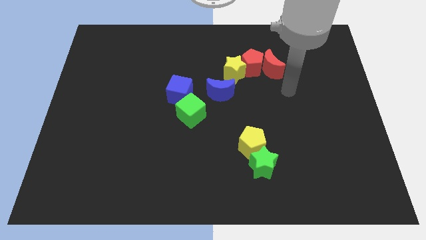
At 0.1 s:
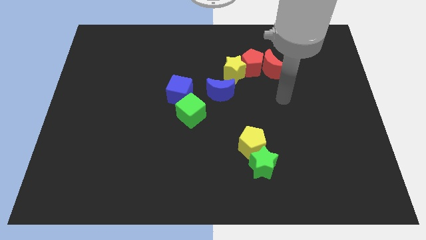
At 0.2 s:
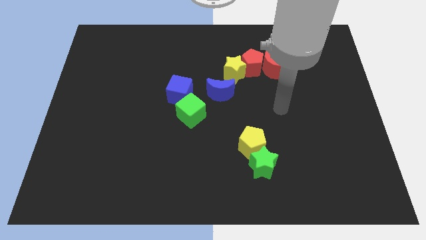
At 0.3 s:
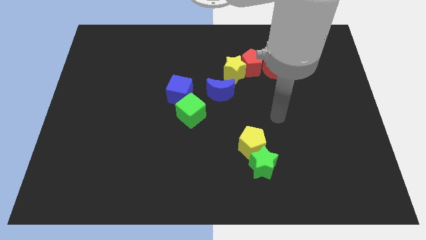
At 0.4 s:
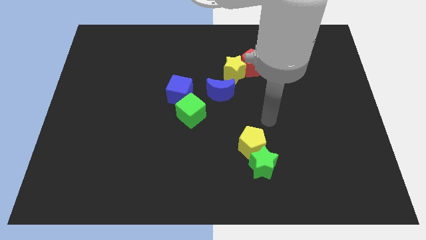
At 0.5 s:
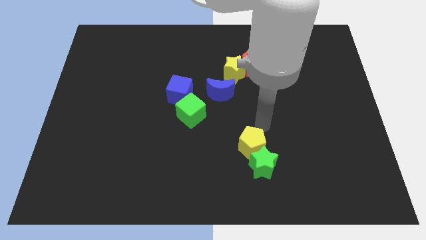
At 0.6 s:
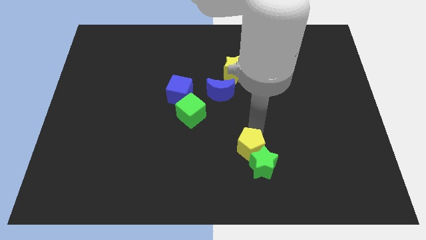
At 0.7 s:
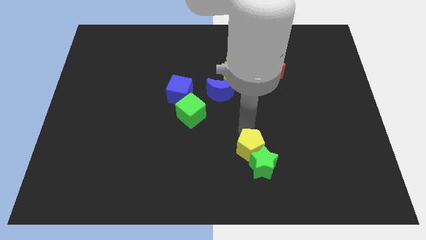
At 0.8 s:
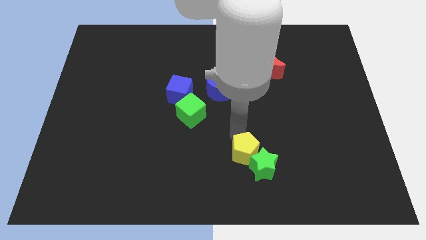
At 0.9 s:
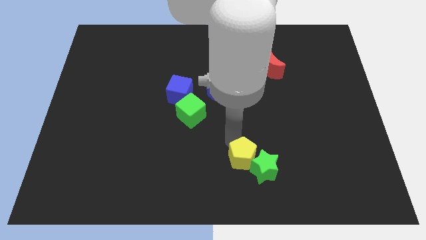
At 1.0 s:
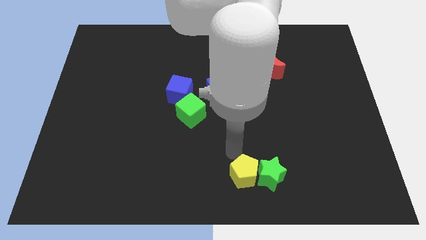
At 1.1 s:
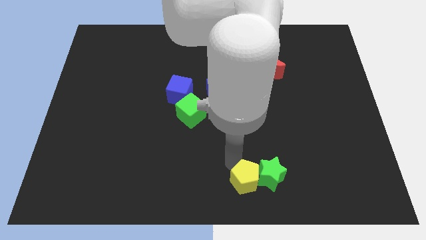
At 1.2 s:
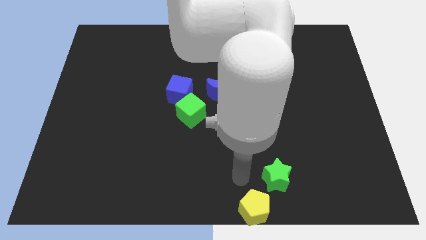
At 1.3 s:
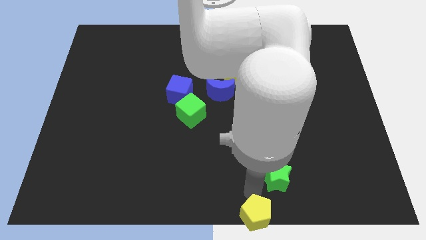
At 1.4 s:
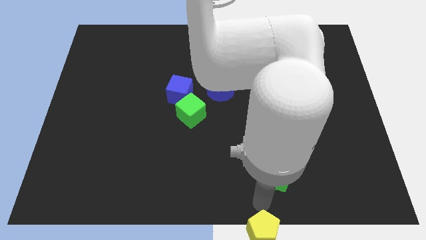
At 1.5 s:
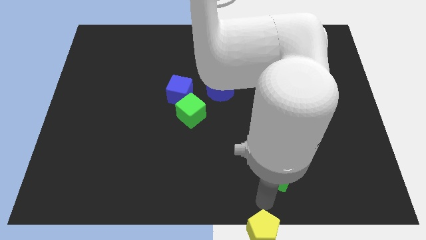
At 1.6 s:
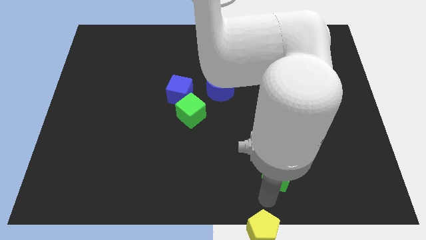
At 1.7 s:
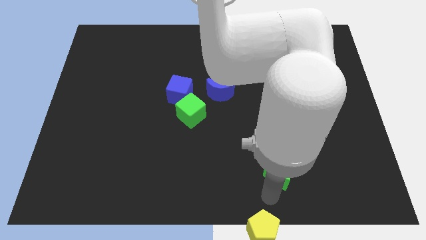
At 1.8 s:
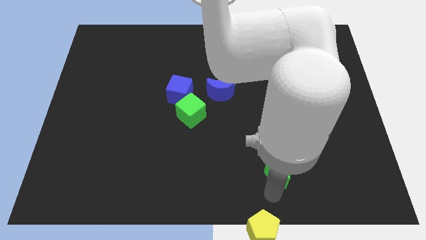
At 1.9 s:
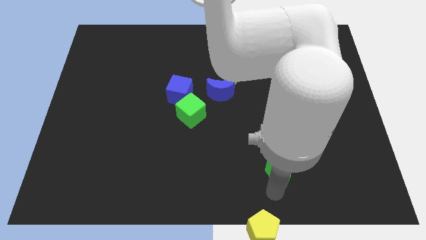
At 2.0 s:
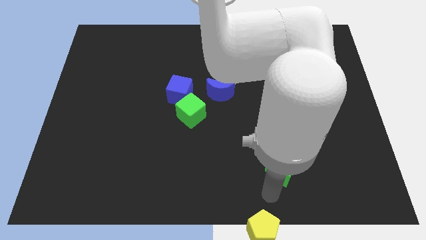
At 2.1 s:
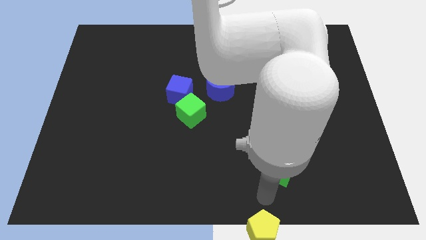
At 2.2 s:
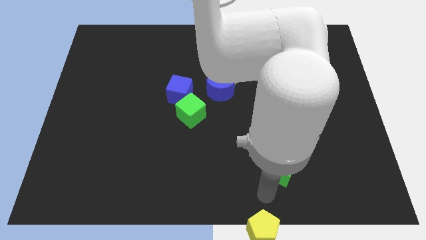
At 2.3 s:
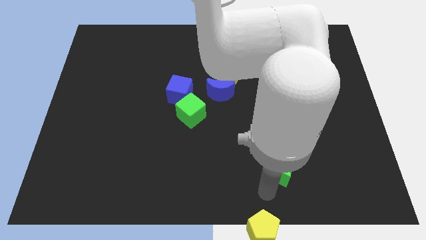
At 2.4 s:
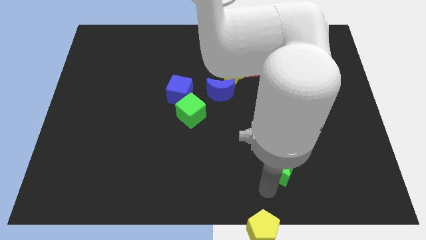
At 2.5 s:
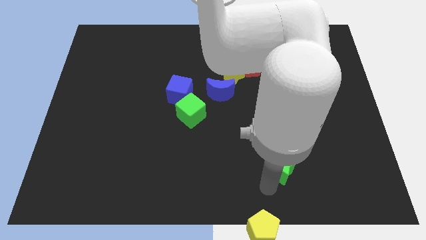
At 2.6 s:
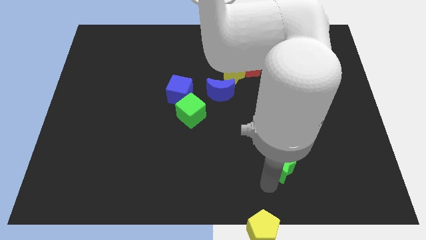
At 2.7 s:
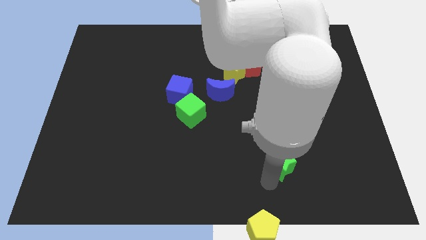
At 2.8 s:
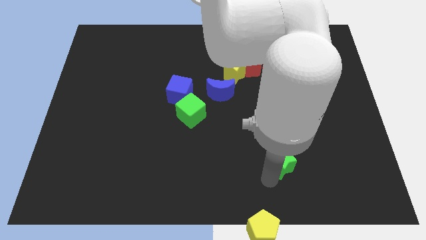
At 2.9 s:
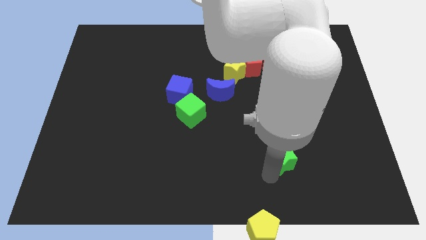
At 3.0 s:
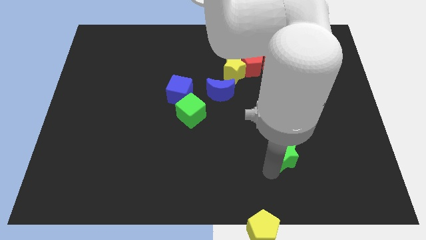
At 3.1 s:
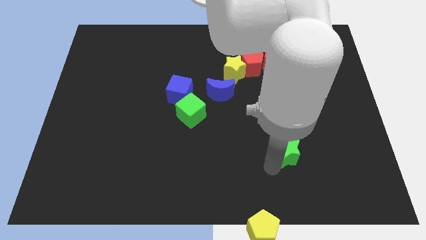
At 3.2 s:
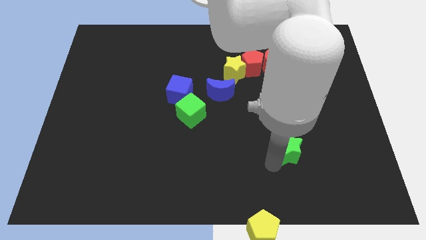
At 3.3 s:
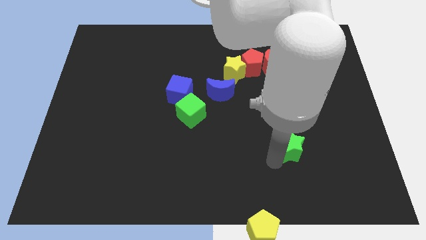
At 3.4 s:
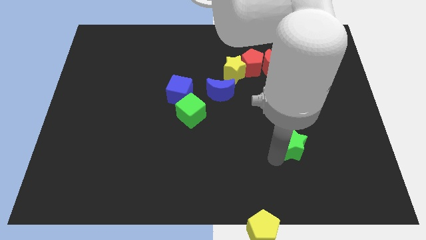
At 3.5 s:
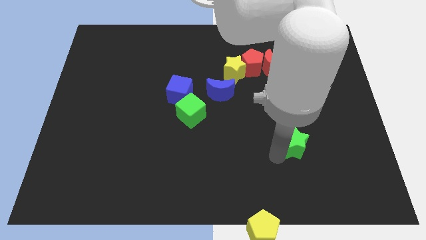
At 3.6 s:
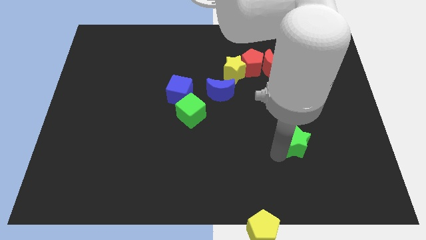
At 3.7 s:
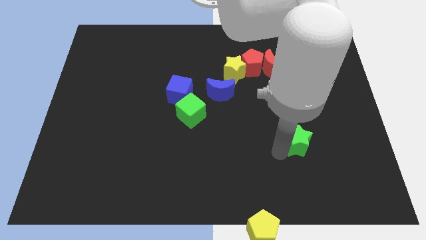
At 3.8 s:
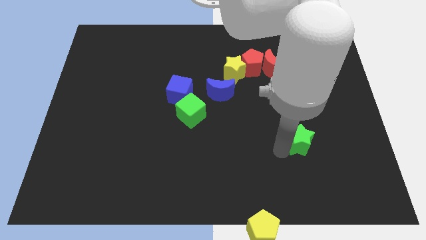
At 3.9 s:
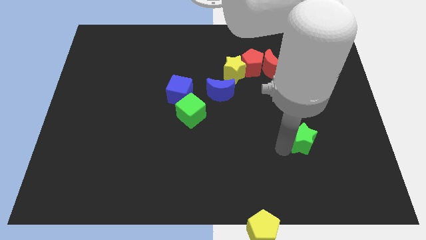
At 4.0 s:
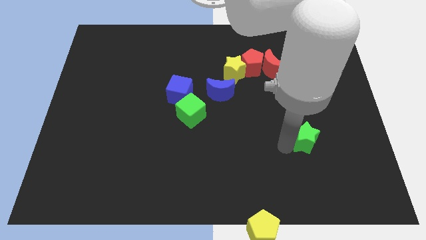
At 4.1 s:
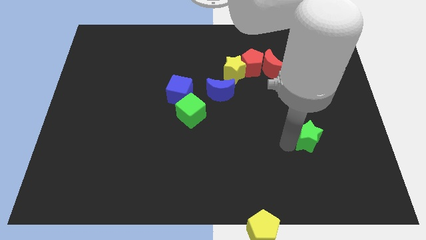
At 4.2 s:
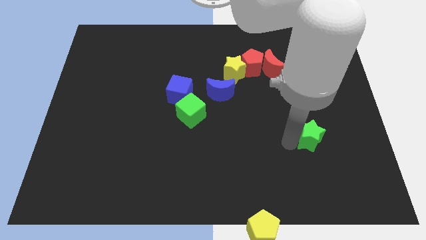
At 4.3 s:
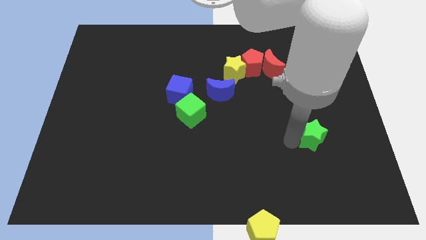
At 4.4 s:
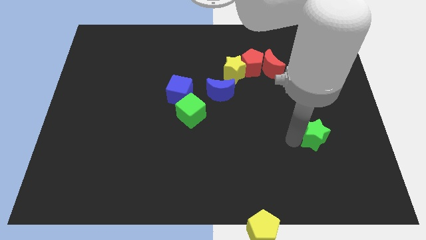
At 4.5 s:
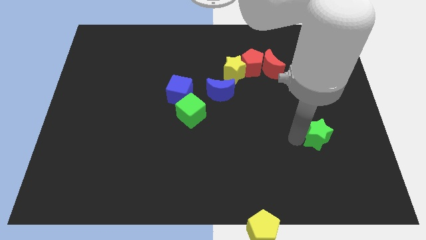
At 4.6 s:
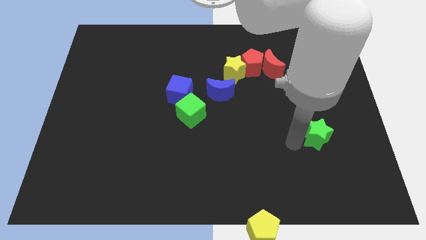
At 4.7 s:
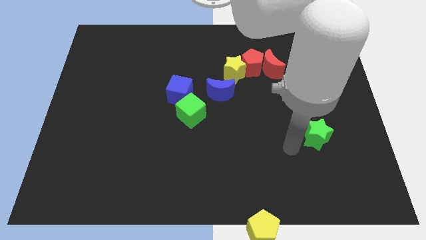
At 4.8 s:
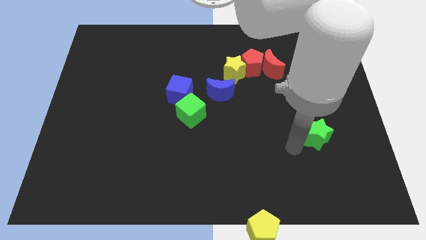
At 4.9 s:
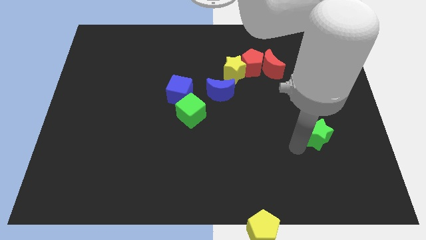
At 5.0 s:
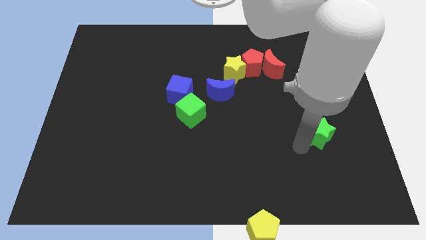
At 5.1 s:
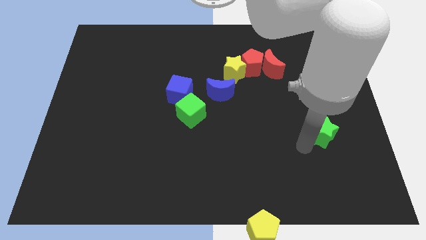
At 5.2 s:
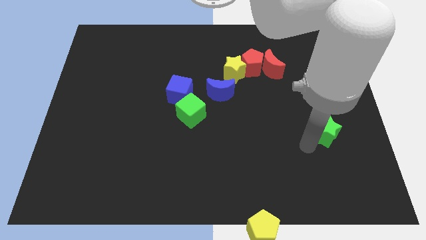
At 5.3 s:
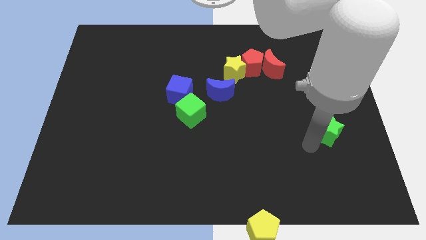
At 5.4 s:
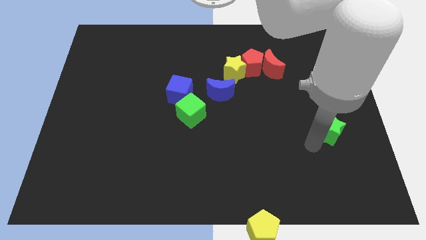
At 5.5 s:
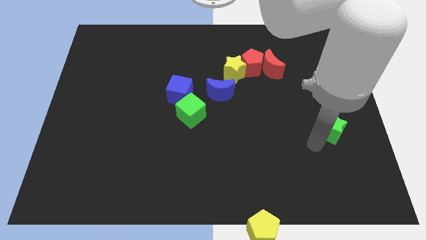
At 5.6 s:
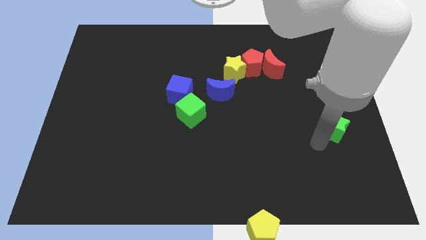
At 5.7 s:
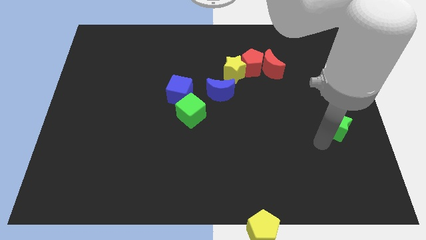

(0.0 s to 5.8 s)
push the green star to the right side

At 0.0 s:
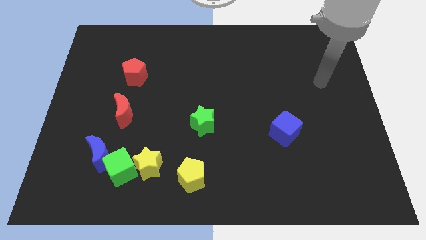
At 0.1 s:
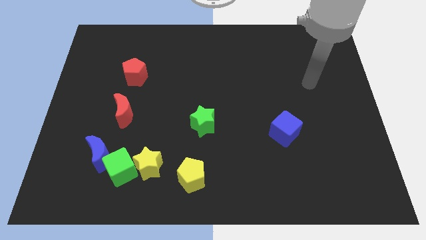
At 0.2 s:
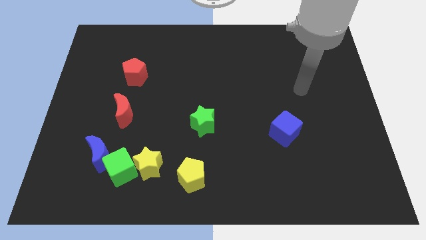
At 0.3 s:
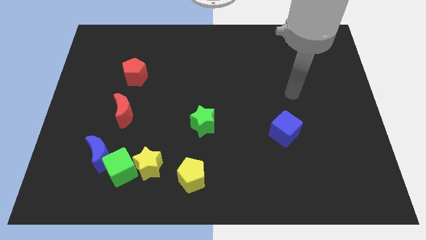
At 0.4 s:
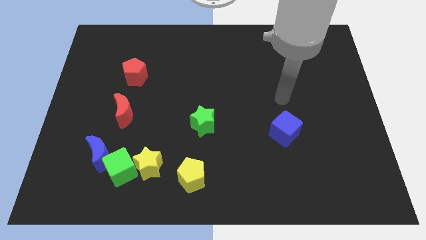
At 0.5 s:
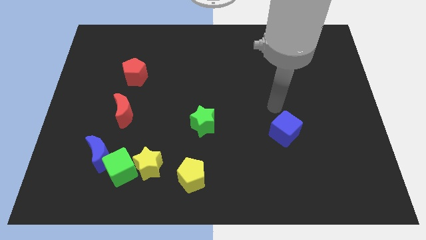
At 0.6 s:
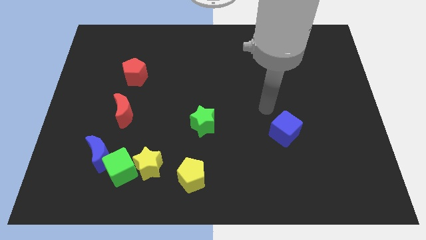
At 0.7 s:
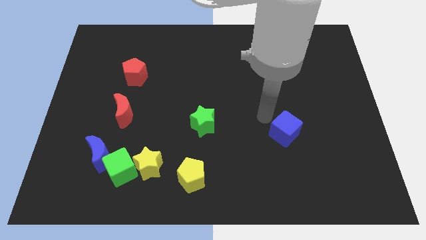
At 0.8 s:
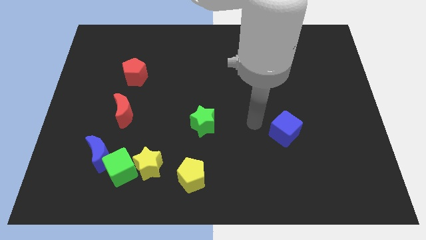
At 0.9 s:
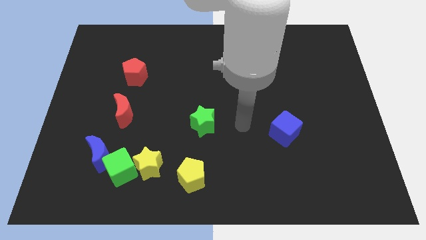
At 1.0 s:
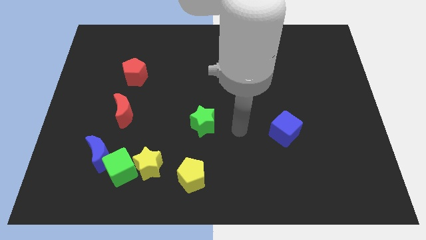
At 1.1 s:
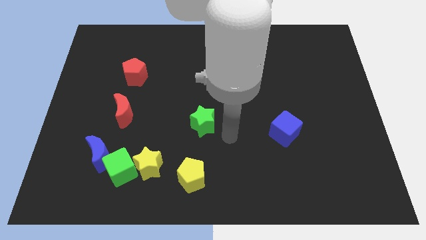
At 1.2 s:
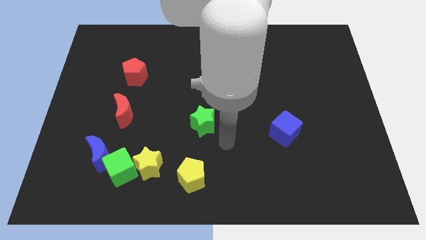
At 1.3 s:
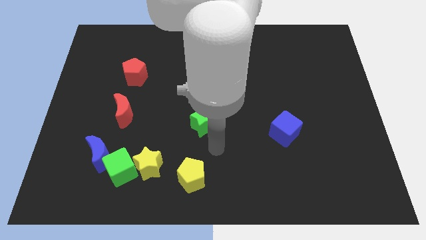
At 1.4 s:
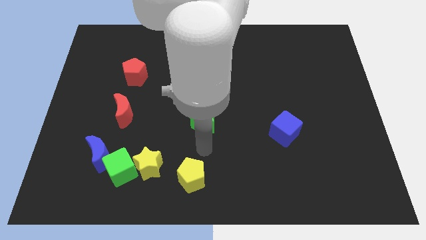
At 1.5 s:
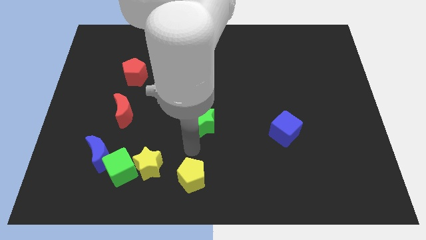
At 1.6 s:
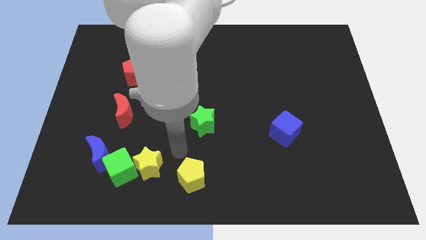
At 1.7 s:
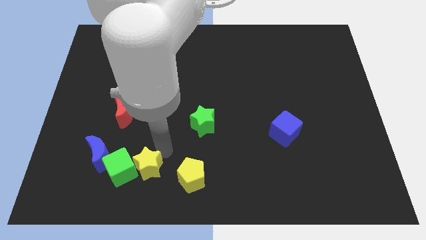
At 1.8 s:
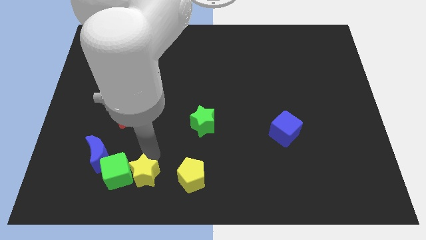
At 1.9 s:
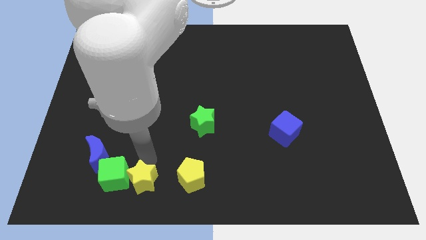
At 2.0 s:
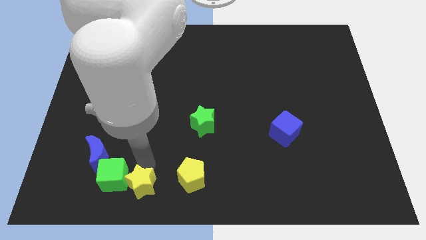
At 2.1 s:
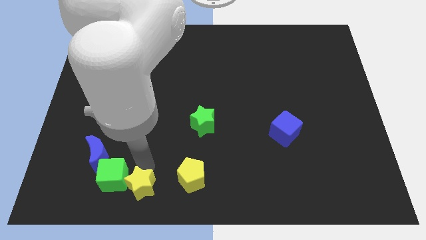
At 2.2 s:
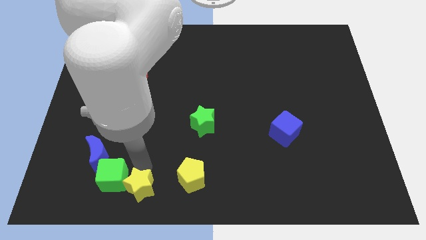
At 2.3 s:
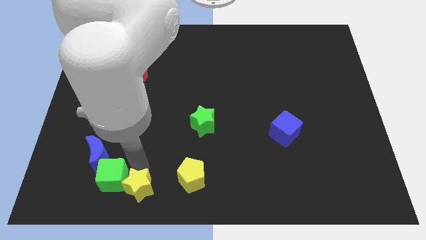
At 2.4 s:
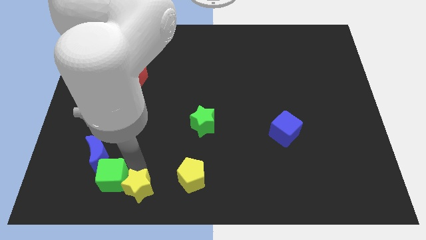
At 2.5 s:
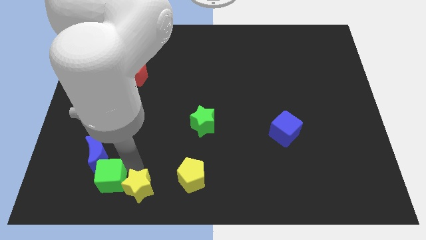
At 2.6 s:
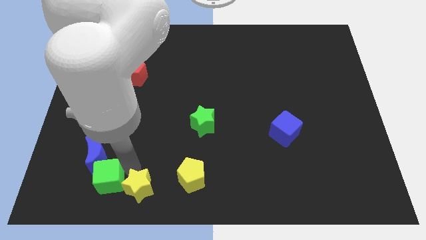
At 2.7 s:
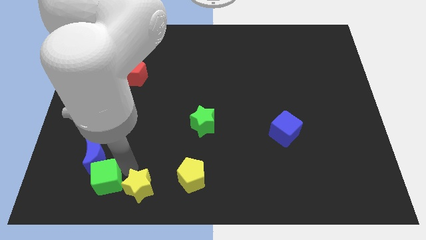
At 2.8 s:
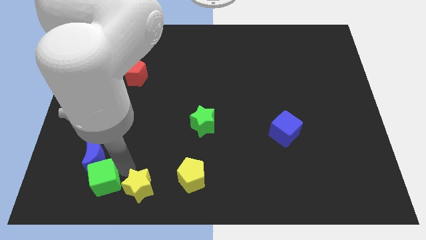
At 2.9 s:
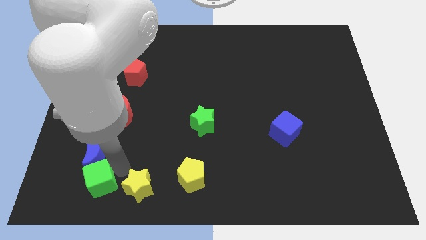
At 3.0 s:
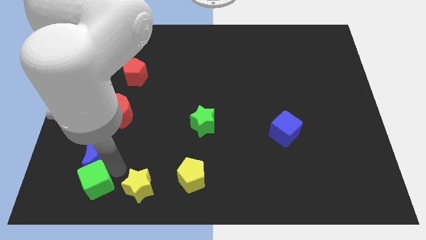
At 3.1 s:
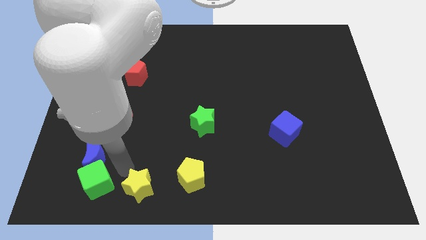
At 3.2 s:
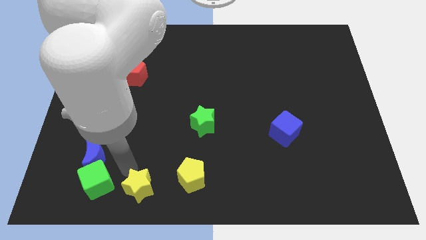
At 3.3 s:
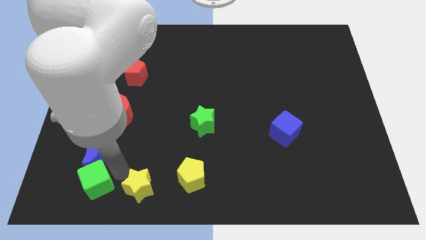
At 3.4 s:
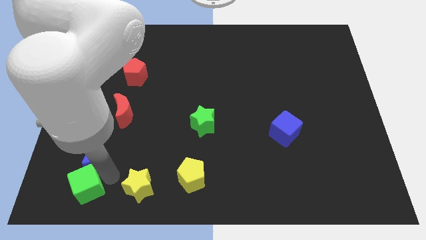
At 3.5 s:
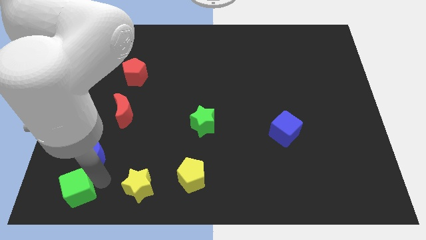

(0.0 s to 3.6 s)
slide the green cube to the bottom left of the board
